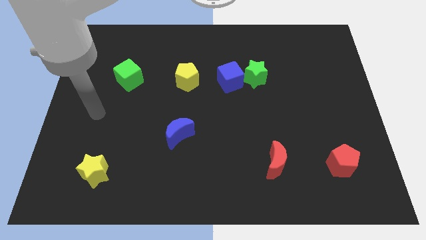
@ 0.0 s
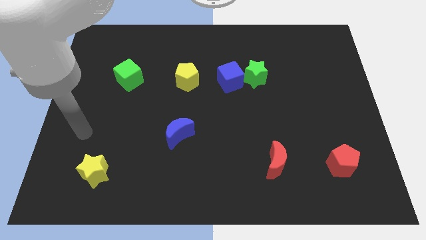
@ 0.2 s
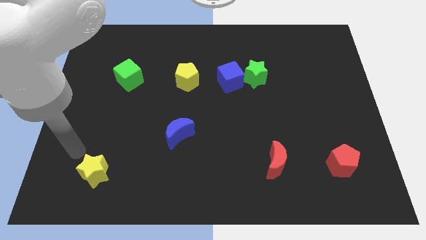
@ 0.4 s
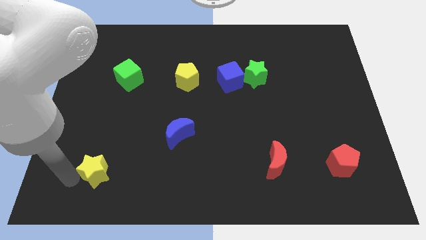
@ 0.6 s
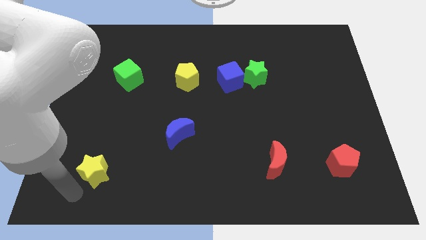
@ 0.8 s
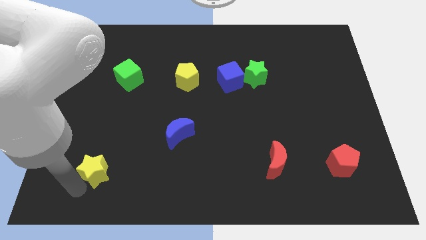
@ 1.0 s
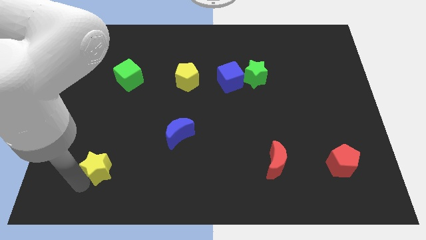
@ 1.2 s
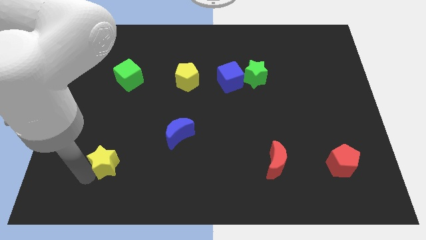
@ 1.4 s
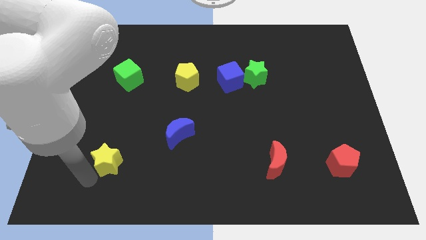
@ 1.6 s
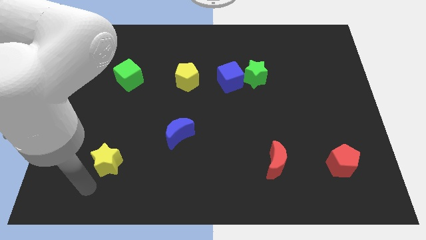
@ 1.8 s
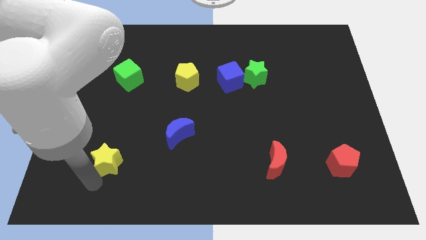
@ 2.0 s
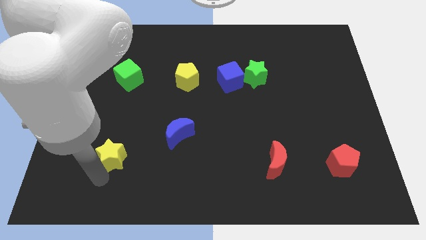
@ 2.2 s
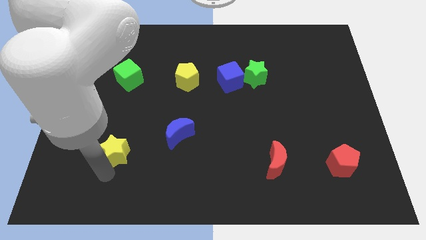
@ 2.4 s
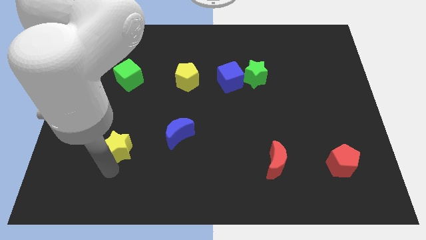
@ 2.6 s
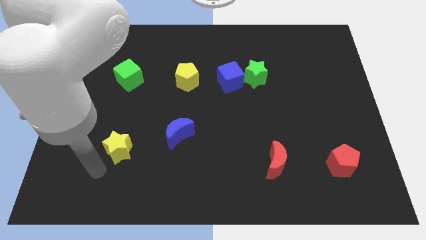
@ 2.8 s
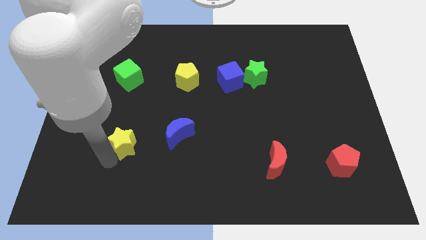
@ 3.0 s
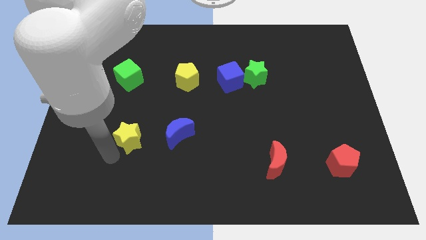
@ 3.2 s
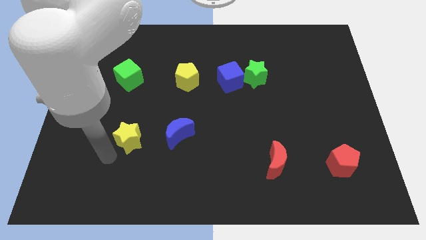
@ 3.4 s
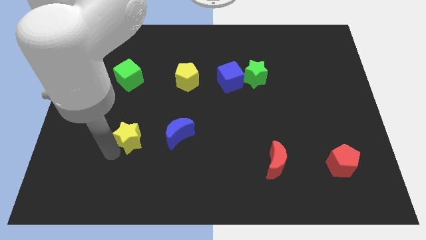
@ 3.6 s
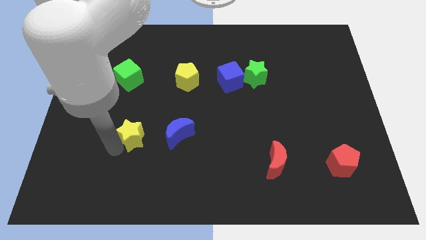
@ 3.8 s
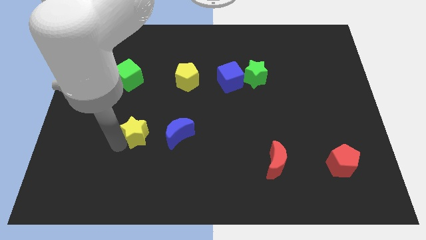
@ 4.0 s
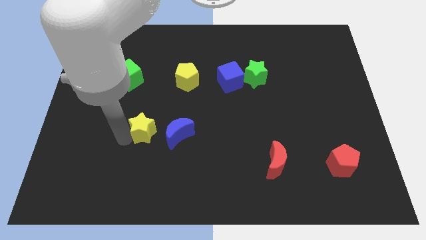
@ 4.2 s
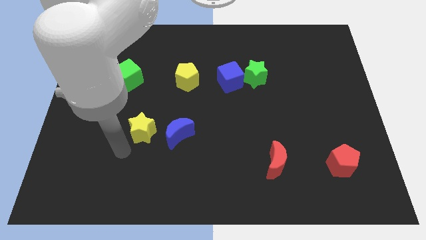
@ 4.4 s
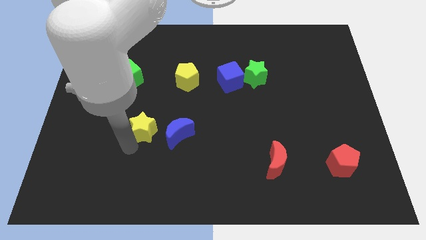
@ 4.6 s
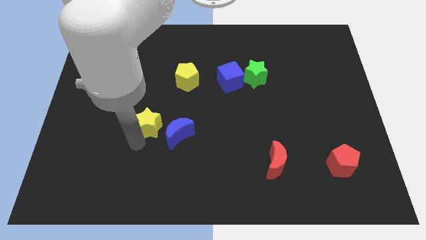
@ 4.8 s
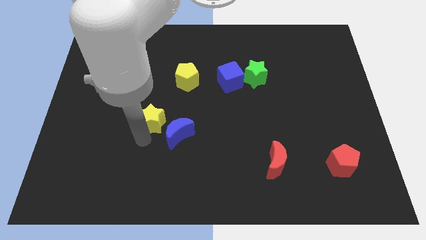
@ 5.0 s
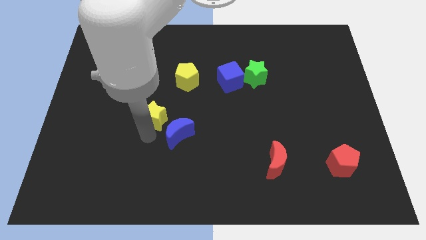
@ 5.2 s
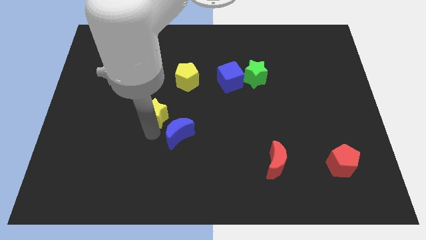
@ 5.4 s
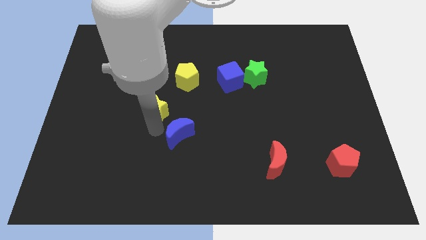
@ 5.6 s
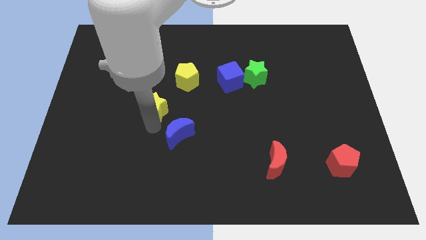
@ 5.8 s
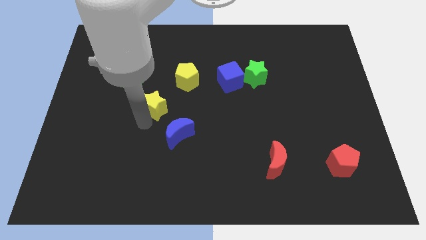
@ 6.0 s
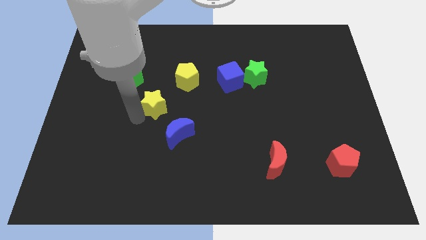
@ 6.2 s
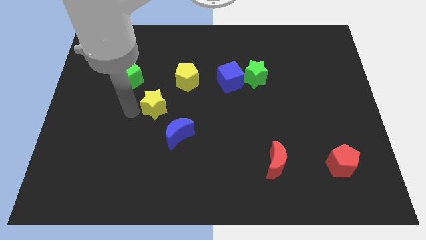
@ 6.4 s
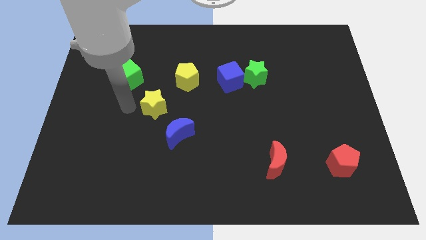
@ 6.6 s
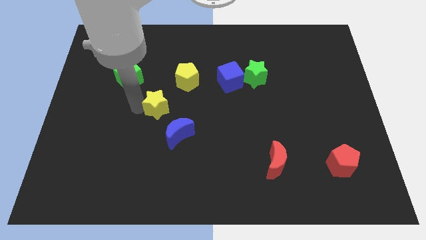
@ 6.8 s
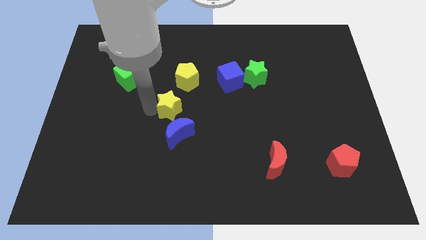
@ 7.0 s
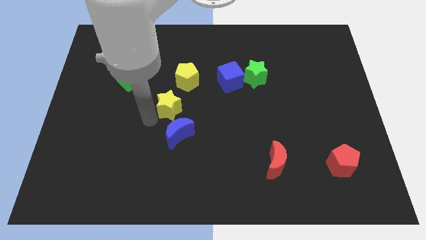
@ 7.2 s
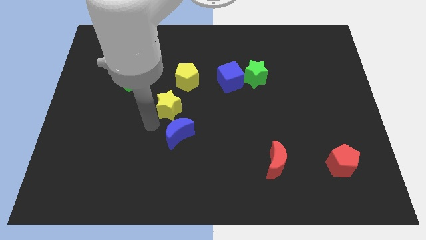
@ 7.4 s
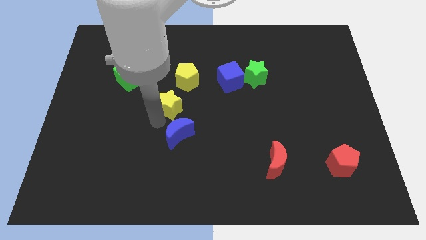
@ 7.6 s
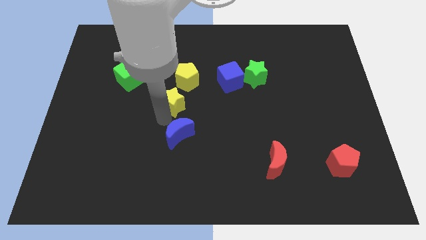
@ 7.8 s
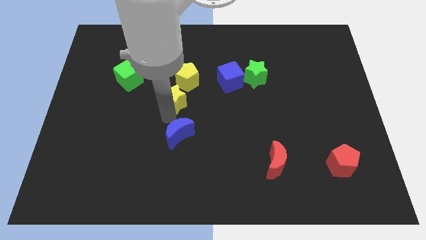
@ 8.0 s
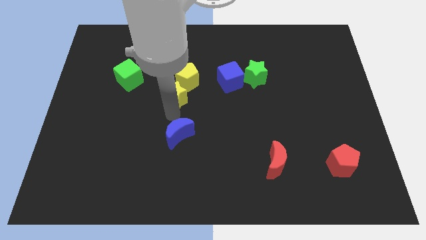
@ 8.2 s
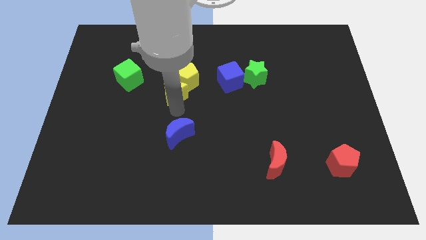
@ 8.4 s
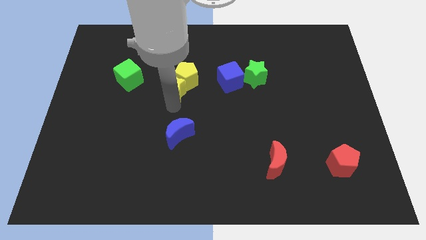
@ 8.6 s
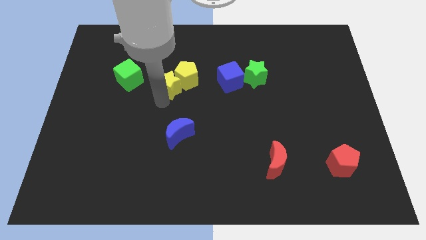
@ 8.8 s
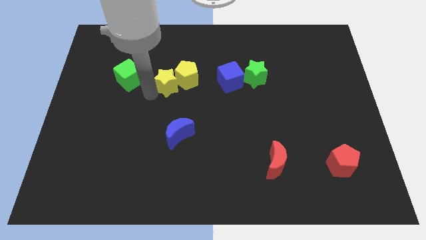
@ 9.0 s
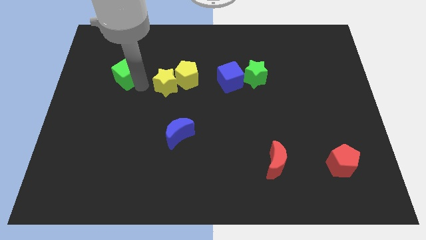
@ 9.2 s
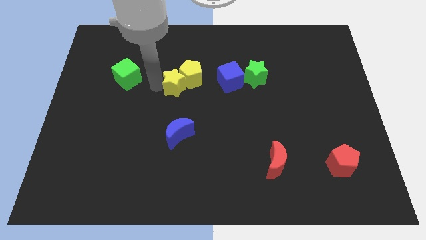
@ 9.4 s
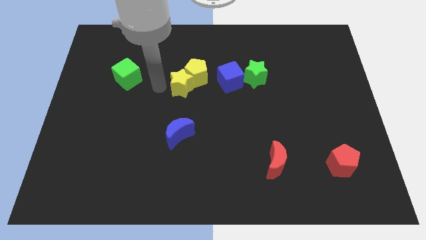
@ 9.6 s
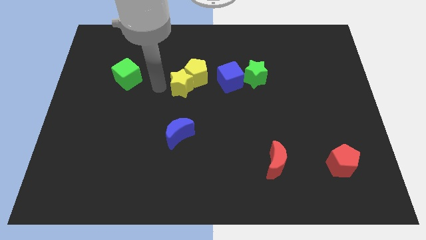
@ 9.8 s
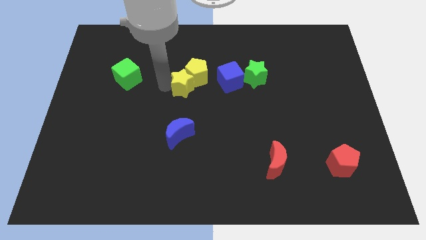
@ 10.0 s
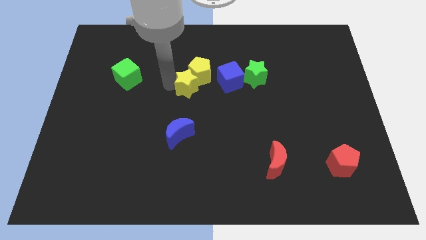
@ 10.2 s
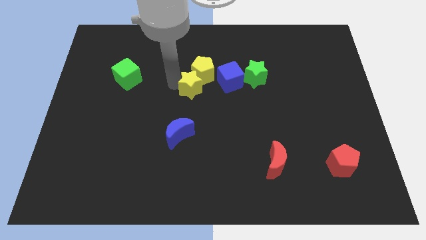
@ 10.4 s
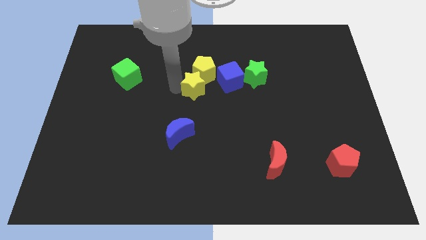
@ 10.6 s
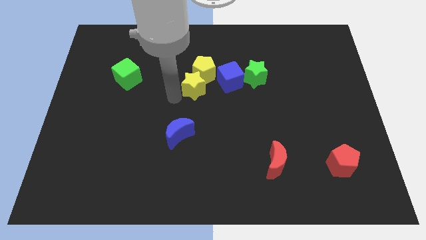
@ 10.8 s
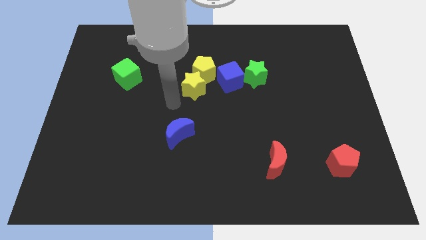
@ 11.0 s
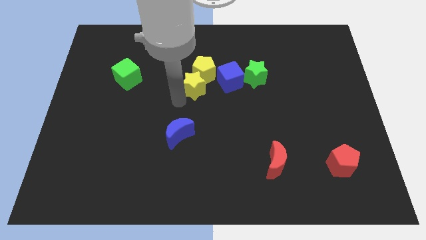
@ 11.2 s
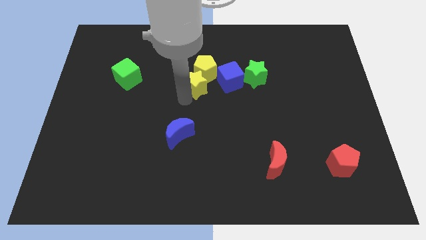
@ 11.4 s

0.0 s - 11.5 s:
slide the yellow star to the left side of the green star

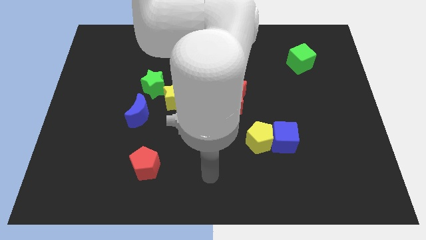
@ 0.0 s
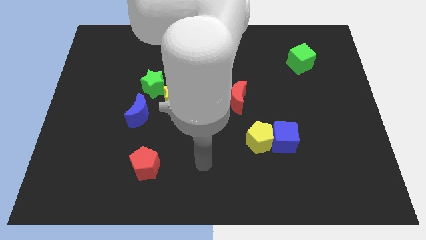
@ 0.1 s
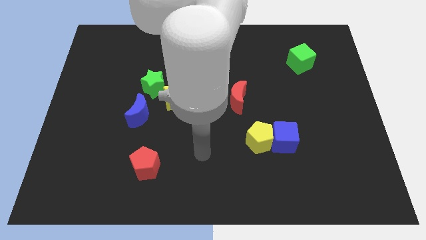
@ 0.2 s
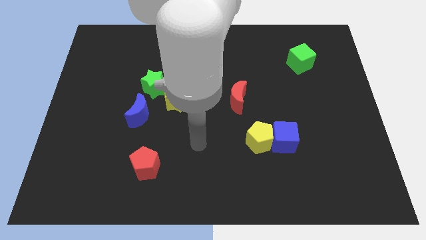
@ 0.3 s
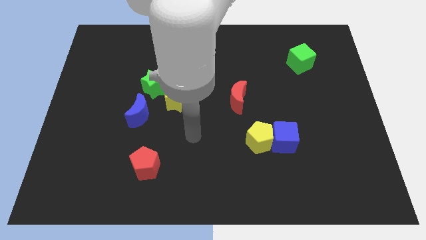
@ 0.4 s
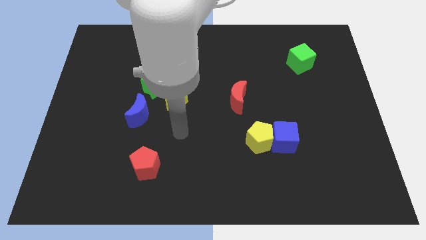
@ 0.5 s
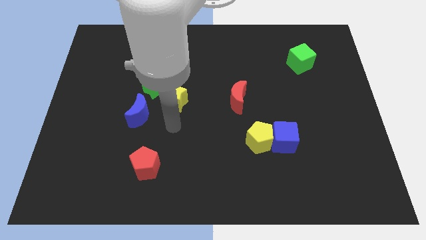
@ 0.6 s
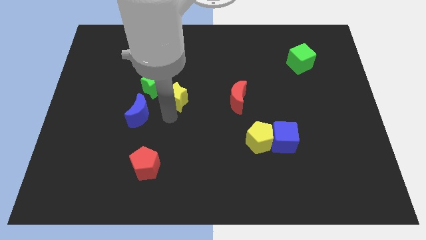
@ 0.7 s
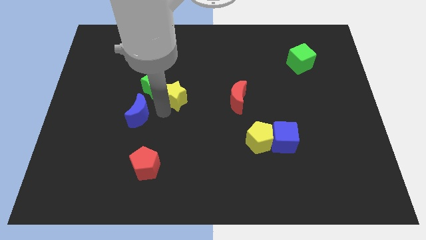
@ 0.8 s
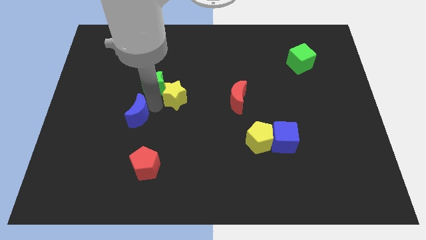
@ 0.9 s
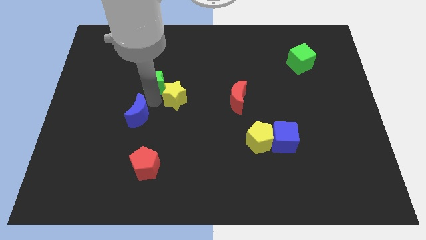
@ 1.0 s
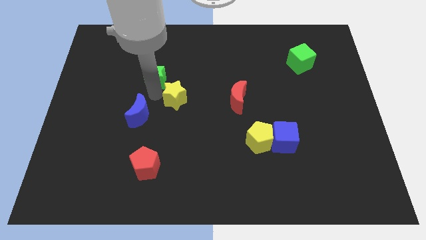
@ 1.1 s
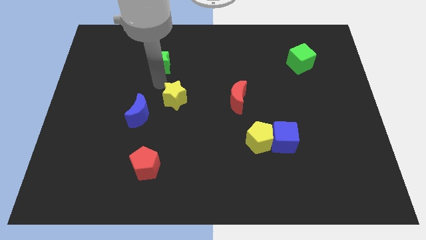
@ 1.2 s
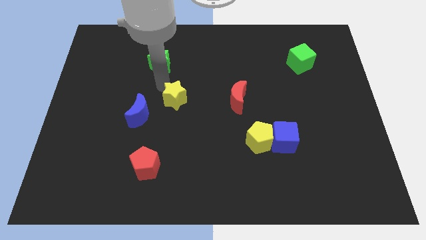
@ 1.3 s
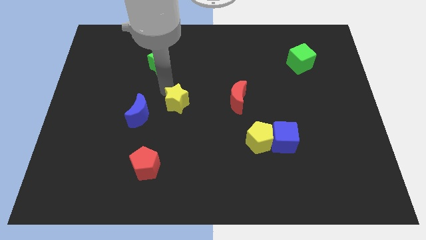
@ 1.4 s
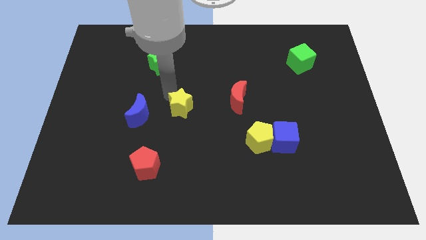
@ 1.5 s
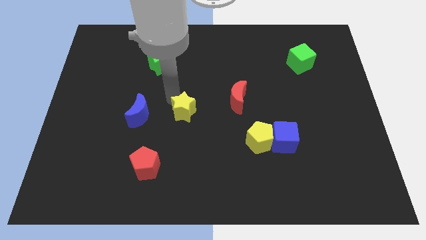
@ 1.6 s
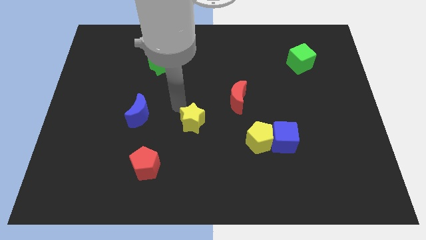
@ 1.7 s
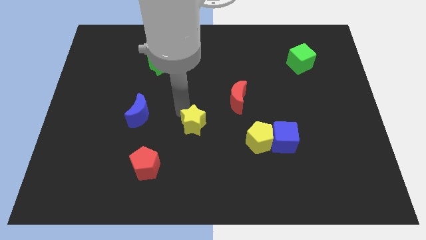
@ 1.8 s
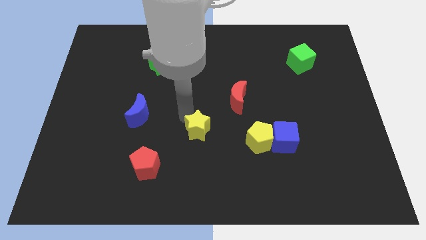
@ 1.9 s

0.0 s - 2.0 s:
move the yellow star to the left side of the yellow pentagon
